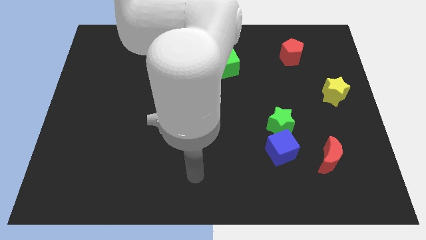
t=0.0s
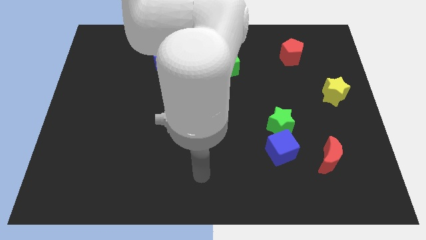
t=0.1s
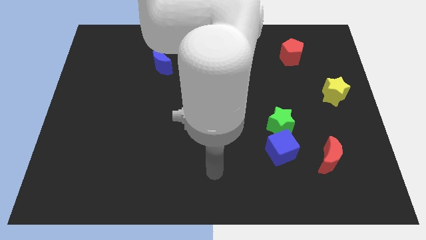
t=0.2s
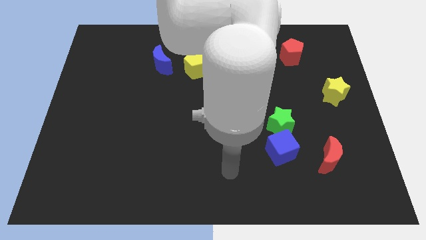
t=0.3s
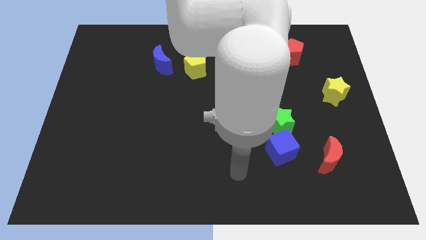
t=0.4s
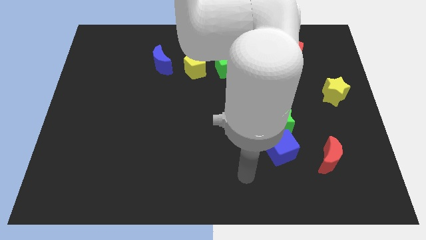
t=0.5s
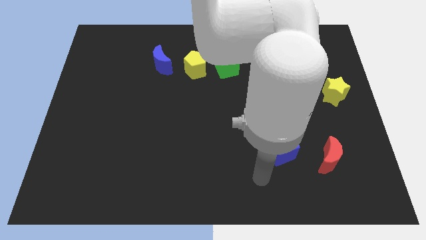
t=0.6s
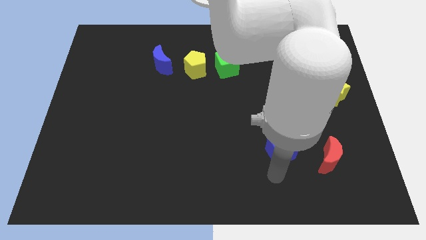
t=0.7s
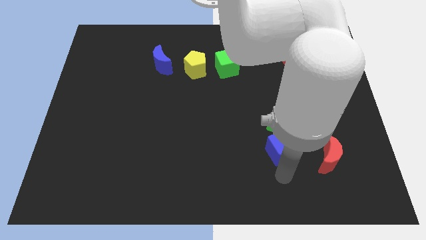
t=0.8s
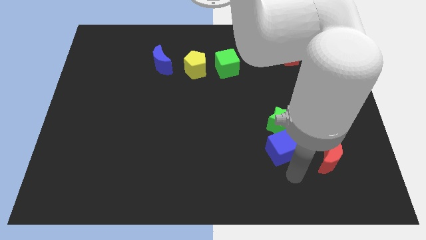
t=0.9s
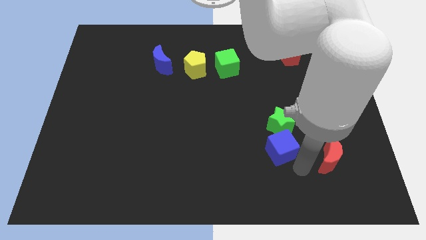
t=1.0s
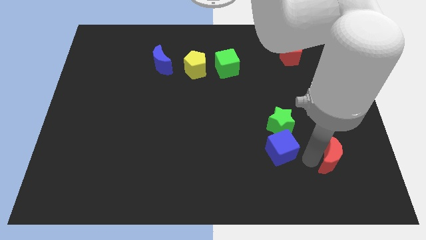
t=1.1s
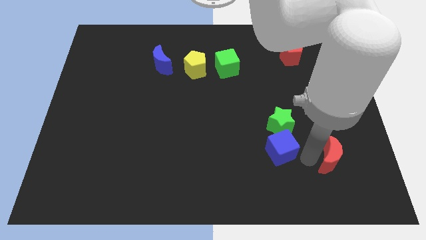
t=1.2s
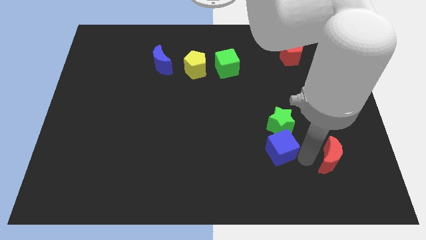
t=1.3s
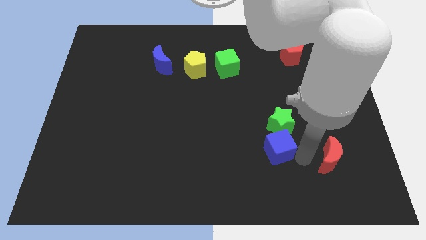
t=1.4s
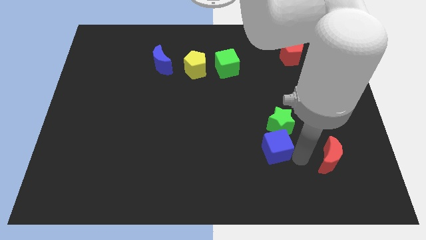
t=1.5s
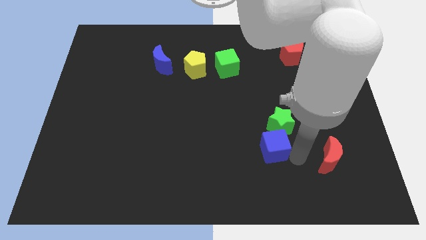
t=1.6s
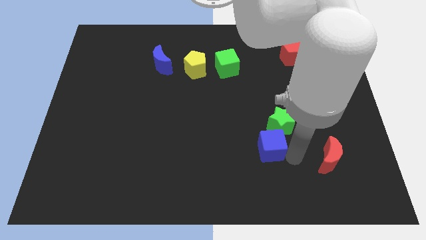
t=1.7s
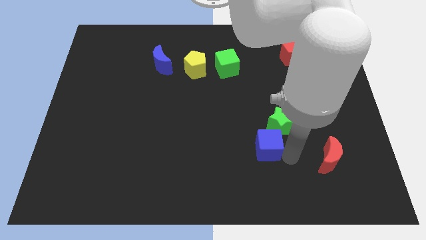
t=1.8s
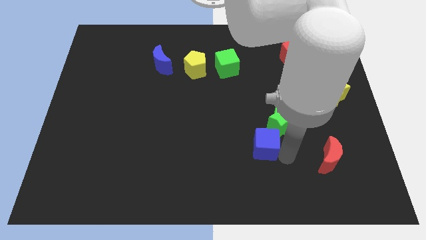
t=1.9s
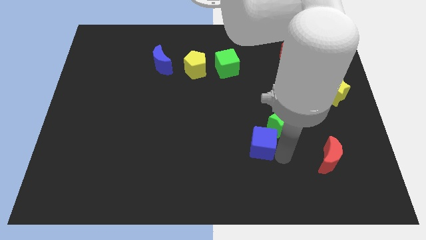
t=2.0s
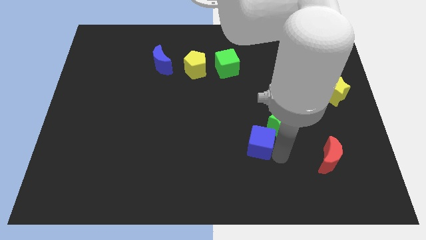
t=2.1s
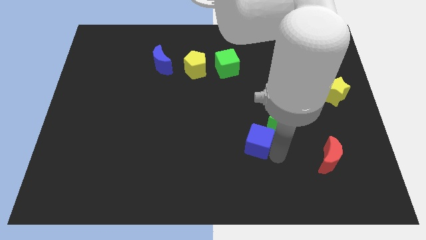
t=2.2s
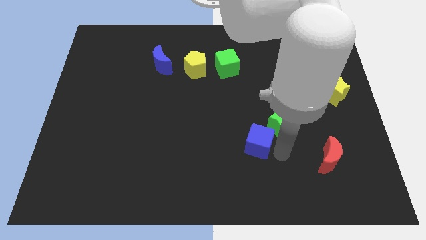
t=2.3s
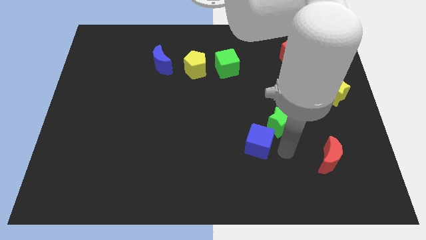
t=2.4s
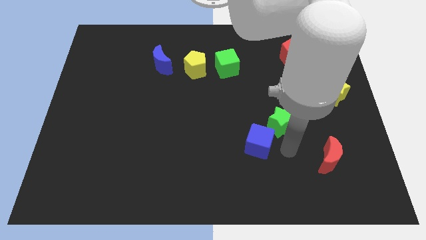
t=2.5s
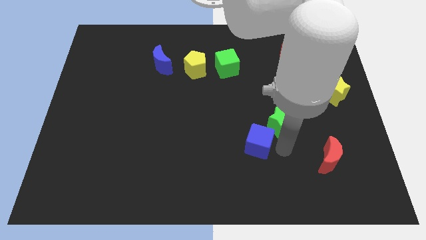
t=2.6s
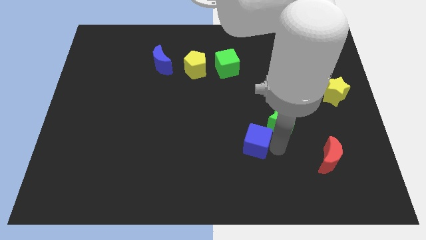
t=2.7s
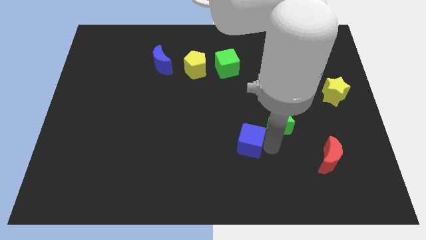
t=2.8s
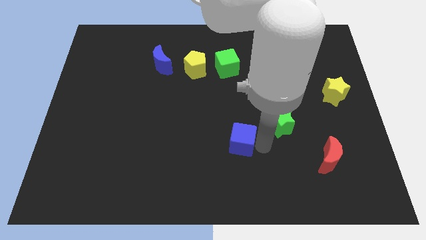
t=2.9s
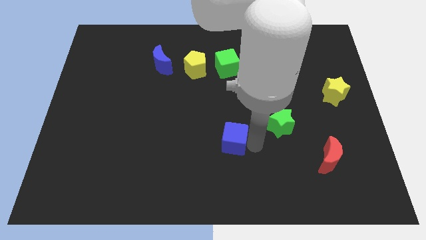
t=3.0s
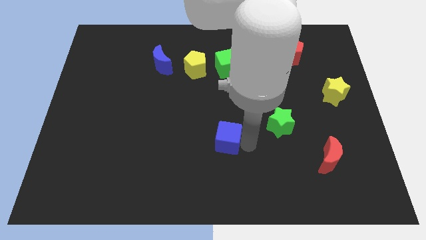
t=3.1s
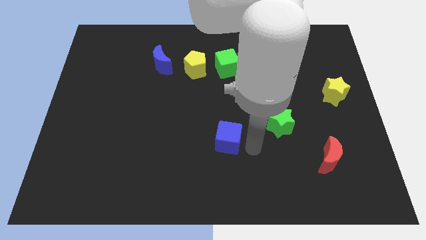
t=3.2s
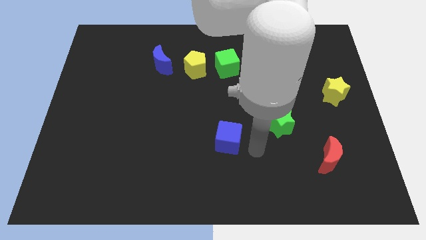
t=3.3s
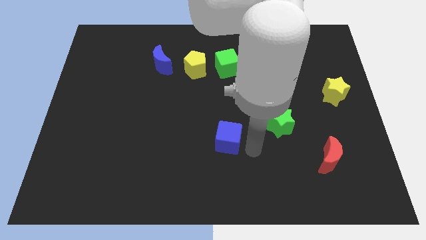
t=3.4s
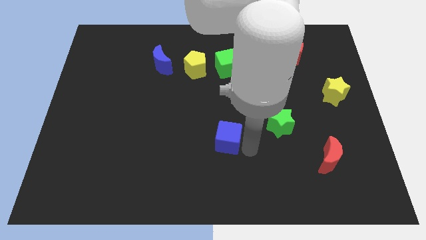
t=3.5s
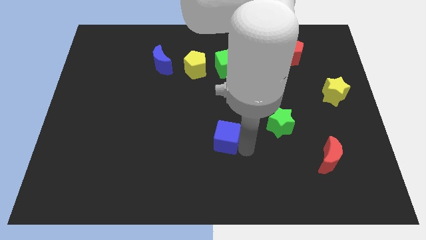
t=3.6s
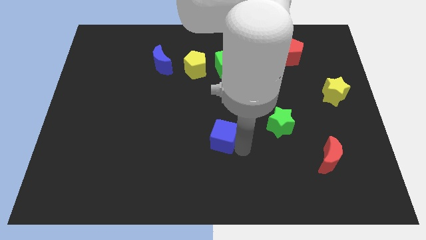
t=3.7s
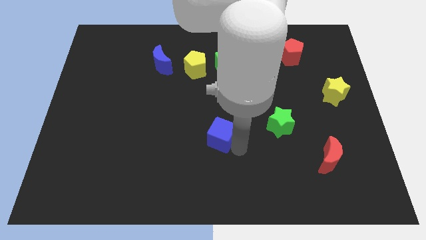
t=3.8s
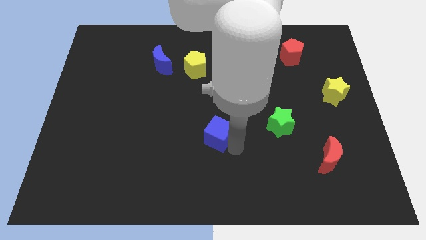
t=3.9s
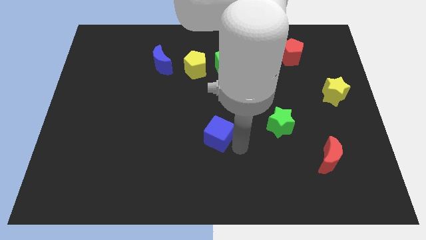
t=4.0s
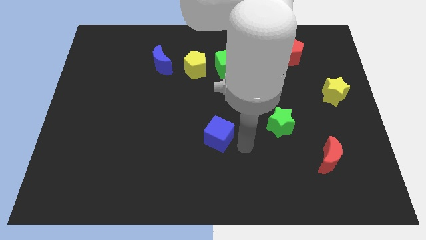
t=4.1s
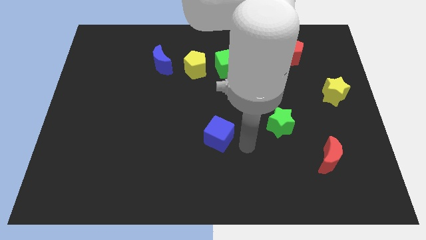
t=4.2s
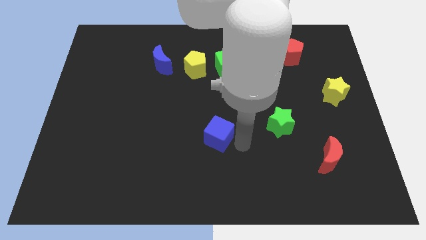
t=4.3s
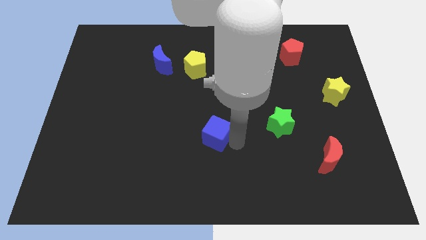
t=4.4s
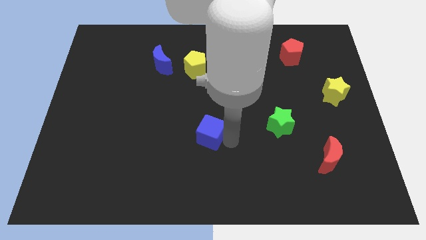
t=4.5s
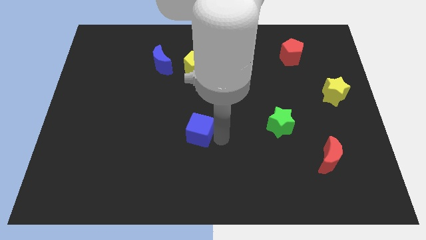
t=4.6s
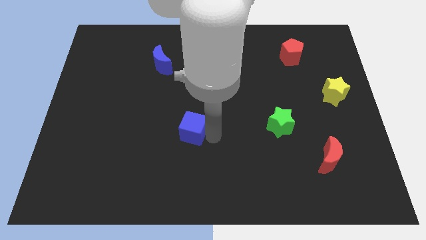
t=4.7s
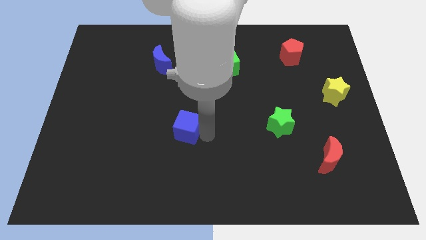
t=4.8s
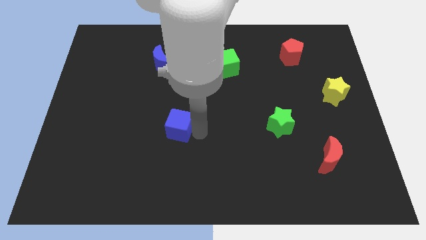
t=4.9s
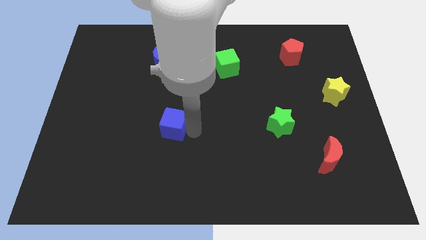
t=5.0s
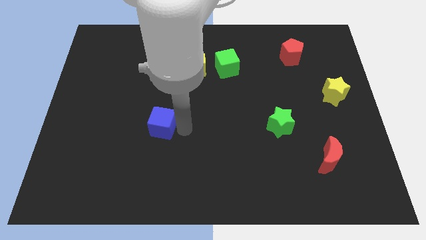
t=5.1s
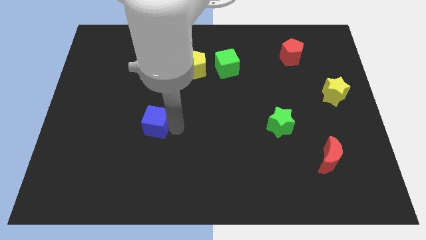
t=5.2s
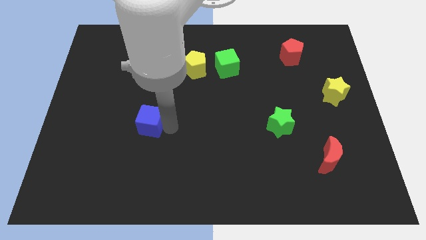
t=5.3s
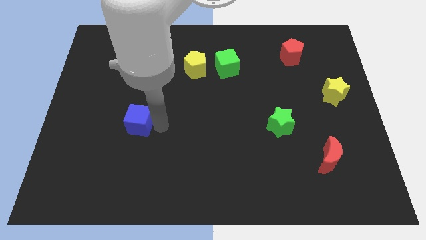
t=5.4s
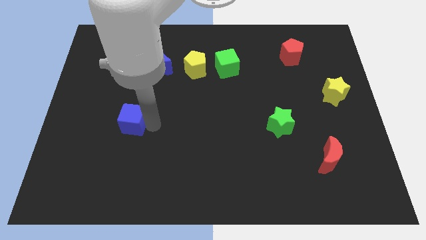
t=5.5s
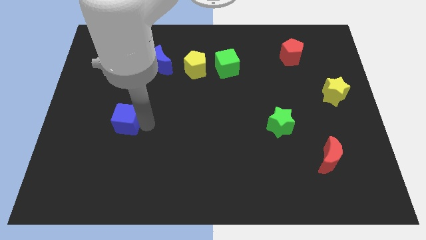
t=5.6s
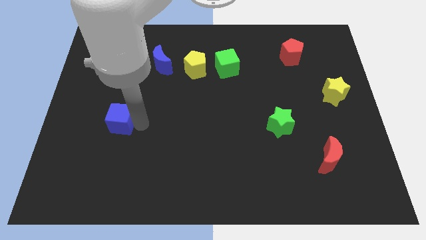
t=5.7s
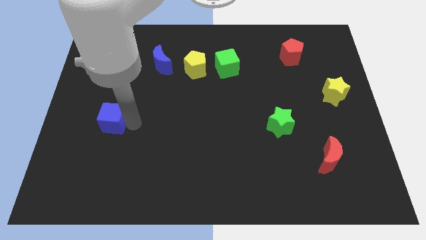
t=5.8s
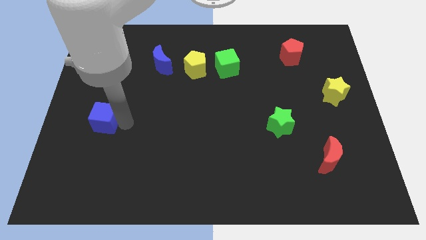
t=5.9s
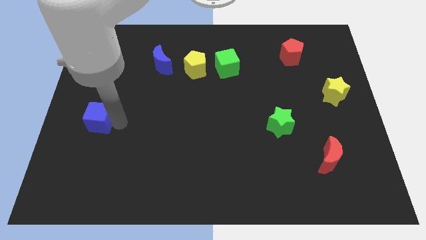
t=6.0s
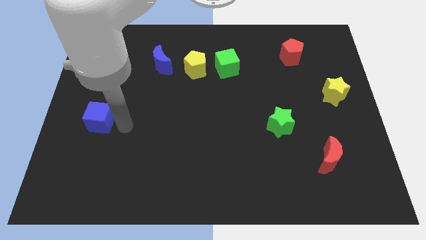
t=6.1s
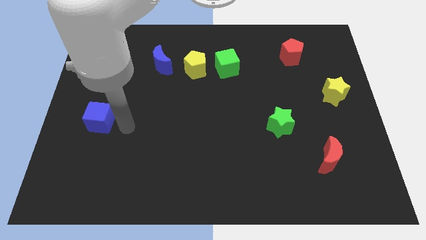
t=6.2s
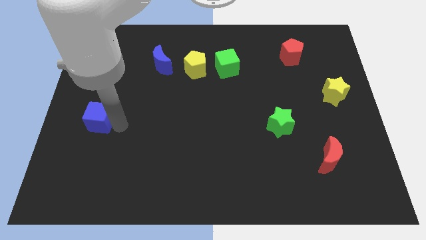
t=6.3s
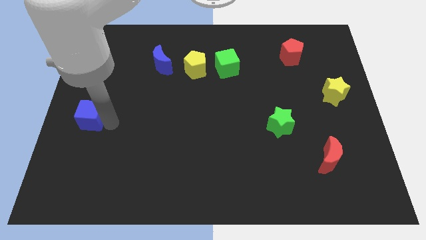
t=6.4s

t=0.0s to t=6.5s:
move the blue cube to the left side

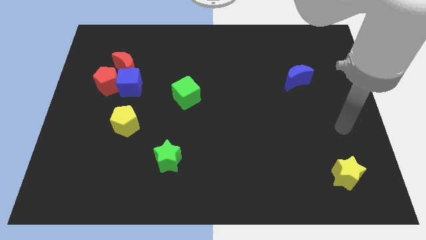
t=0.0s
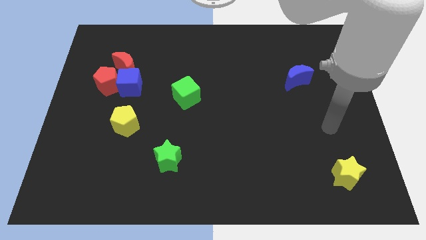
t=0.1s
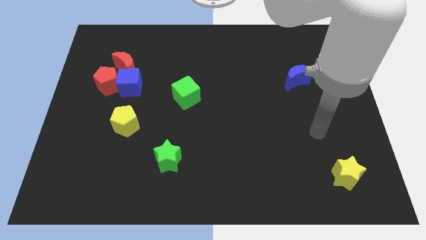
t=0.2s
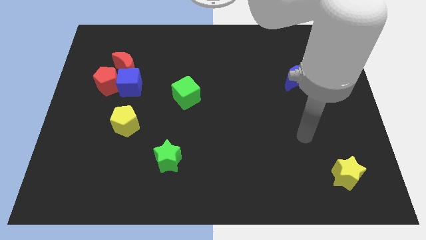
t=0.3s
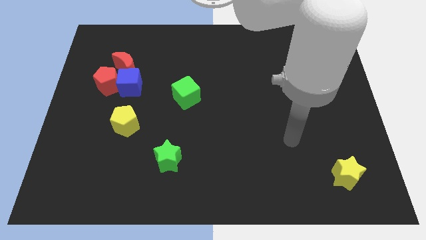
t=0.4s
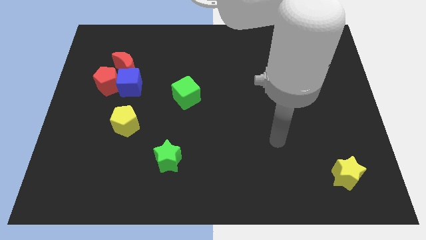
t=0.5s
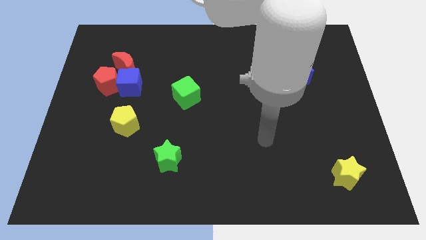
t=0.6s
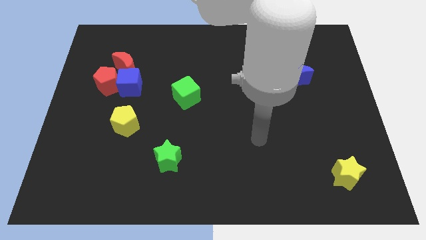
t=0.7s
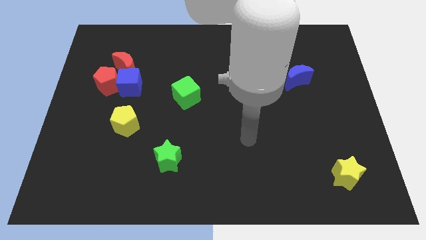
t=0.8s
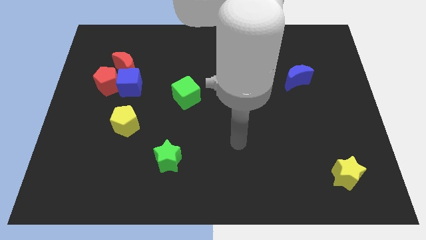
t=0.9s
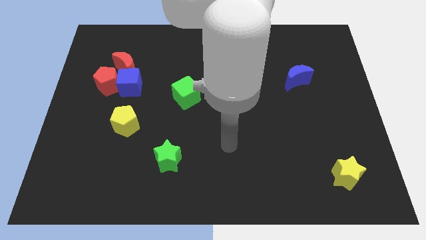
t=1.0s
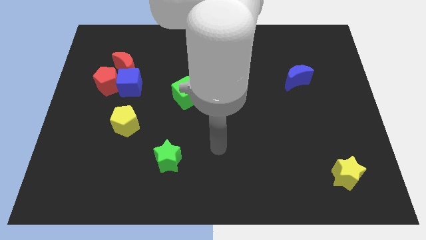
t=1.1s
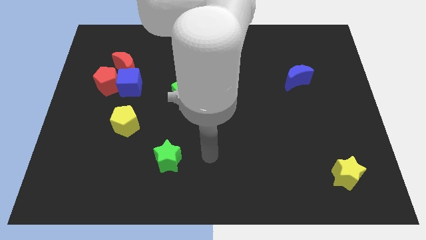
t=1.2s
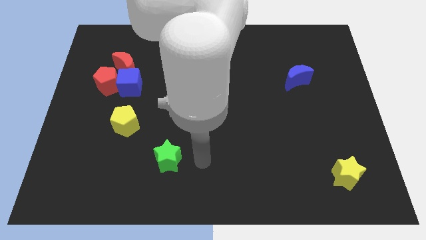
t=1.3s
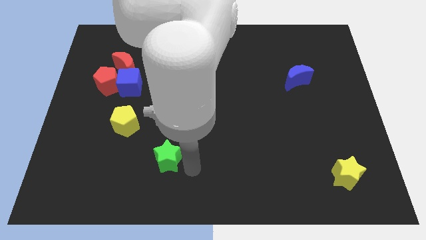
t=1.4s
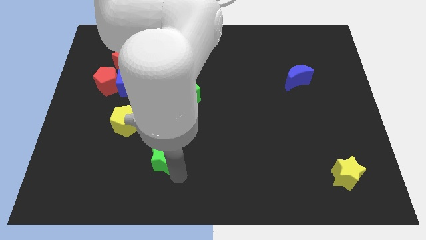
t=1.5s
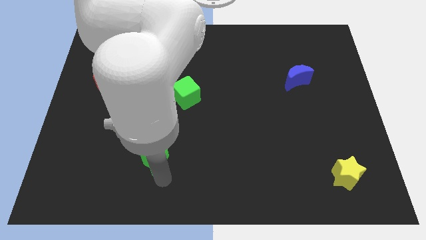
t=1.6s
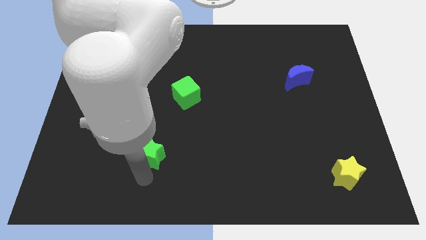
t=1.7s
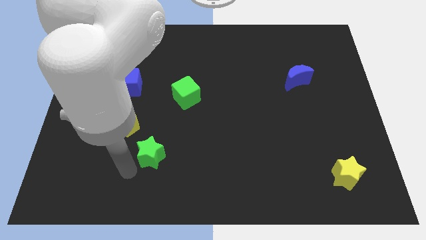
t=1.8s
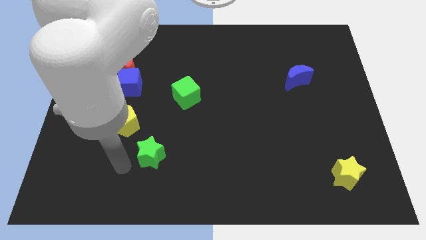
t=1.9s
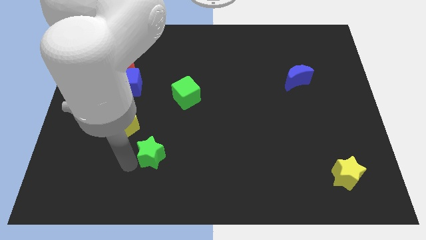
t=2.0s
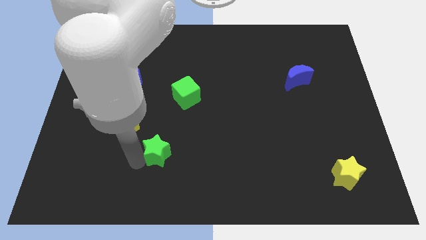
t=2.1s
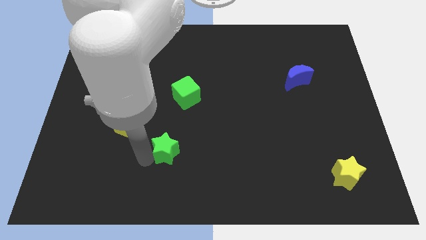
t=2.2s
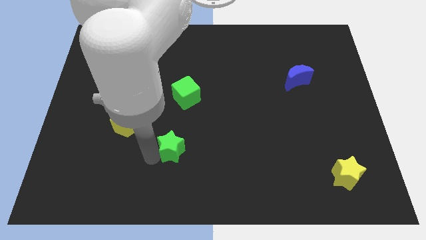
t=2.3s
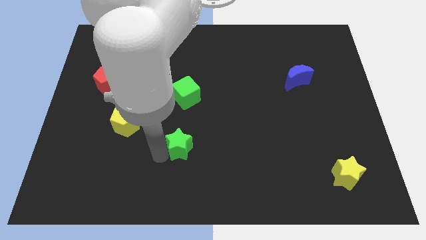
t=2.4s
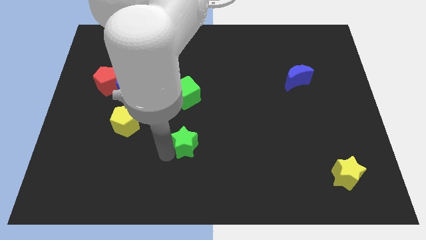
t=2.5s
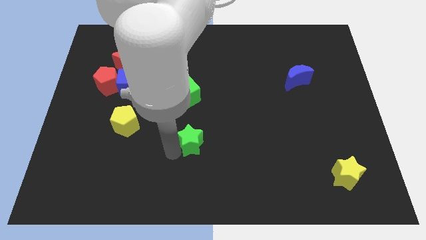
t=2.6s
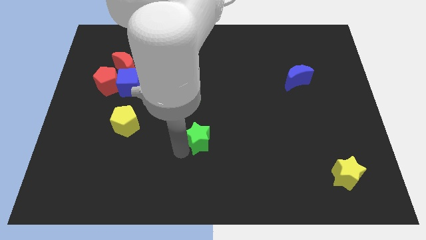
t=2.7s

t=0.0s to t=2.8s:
push the green star to the center of the board

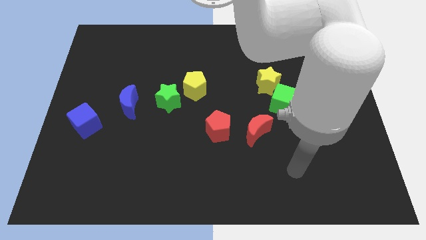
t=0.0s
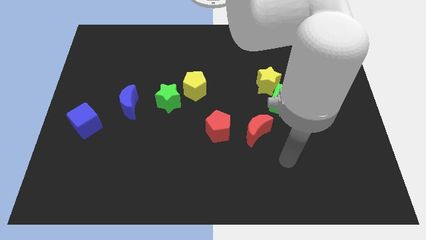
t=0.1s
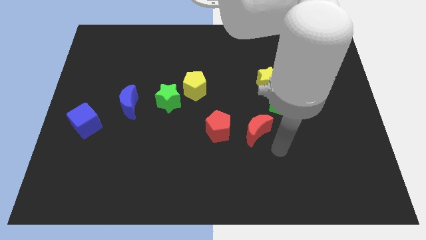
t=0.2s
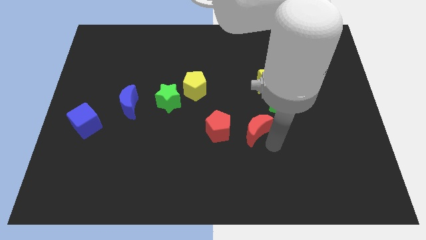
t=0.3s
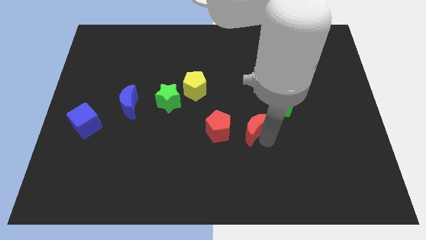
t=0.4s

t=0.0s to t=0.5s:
move the red moon to the center of the board
